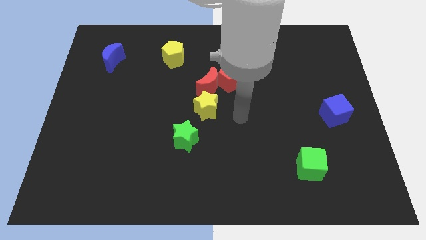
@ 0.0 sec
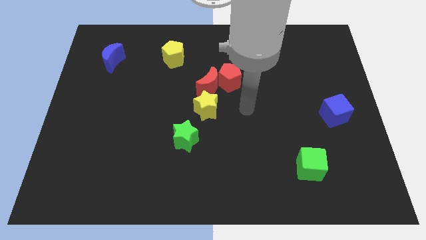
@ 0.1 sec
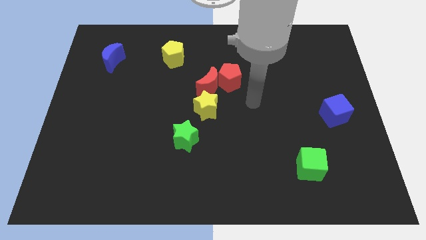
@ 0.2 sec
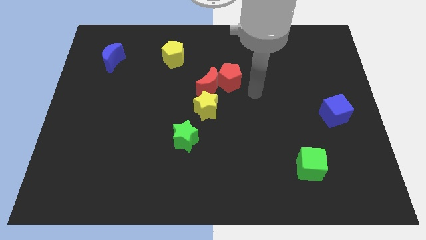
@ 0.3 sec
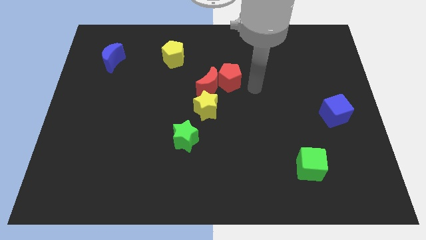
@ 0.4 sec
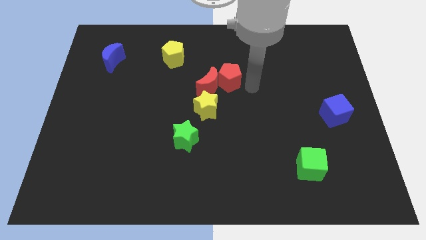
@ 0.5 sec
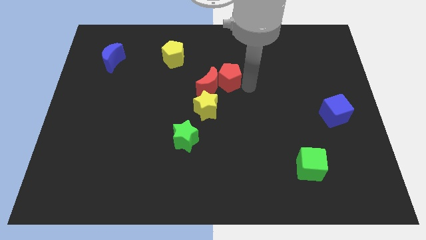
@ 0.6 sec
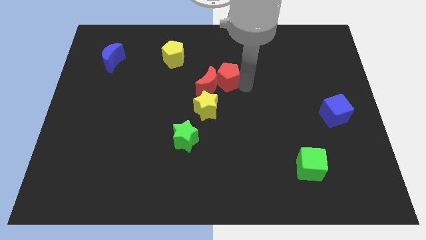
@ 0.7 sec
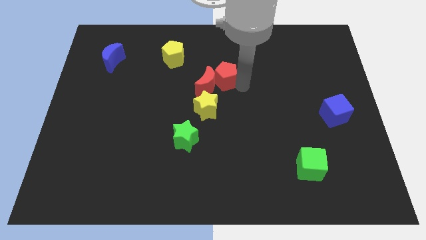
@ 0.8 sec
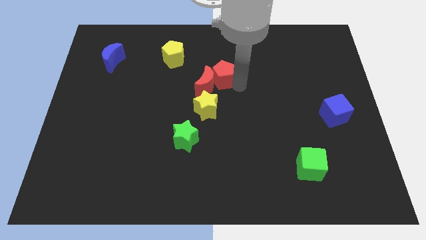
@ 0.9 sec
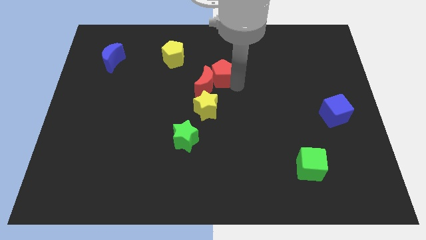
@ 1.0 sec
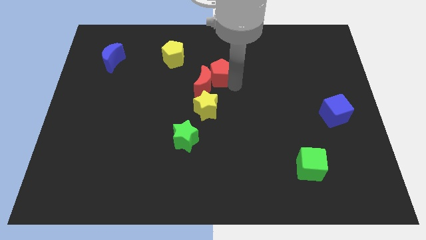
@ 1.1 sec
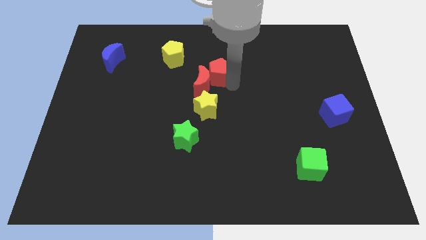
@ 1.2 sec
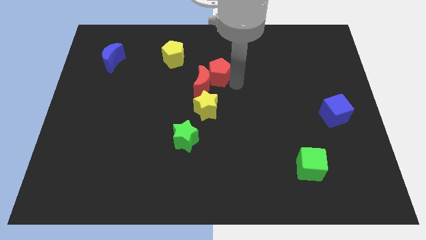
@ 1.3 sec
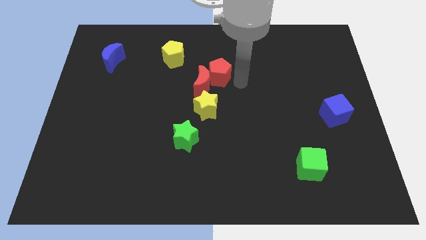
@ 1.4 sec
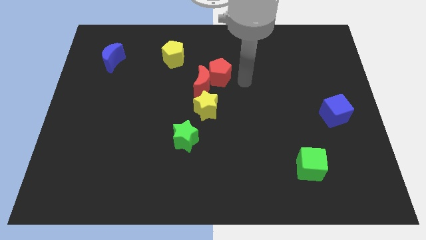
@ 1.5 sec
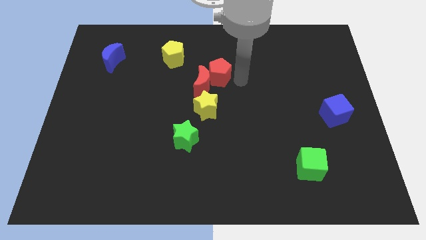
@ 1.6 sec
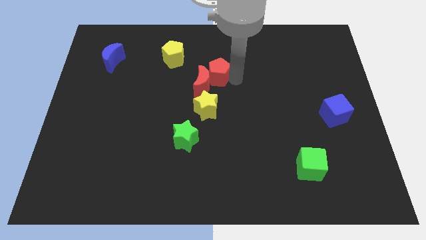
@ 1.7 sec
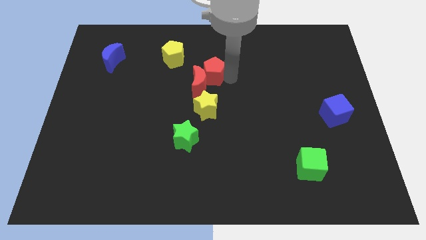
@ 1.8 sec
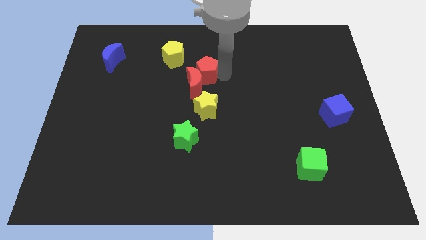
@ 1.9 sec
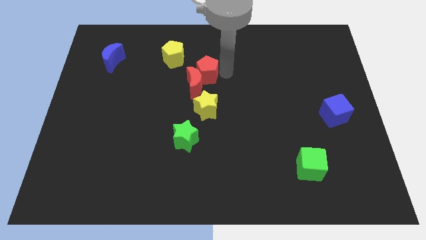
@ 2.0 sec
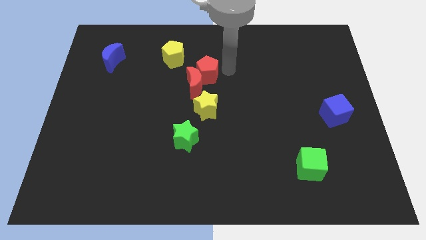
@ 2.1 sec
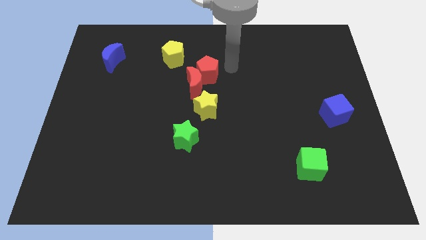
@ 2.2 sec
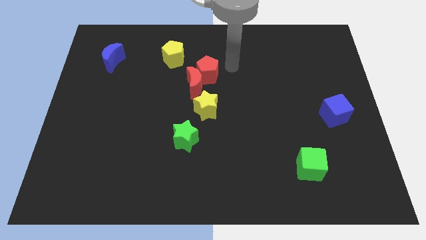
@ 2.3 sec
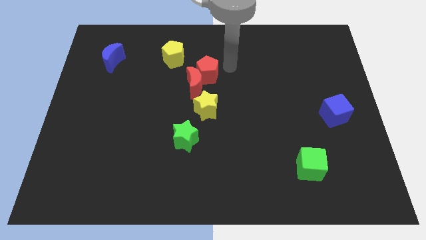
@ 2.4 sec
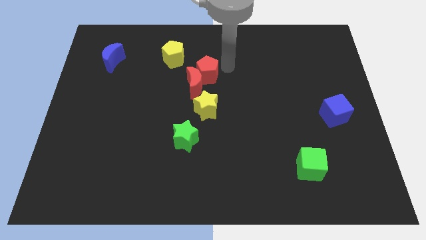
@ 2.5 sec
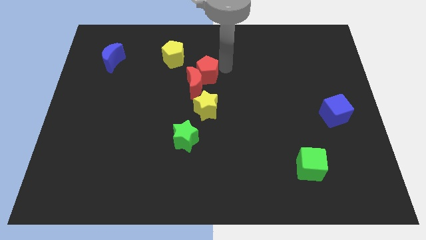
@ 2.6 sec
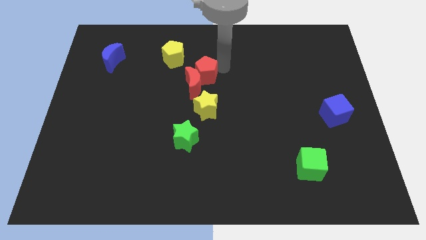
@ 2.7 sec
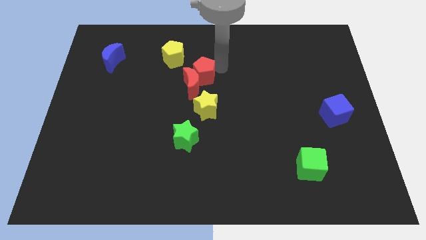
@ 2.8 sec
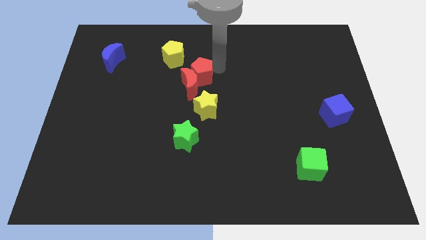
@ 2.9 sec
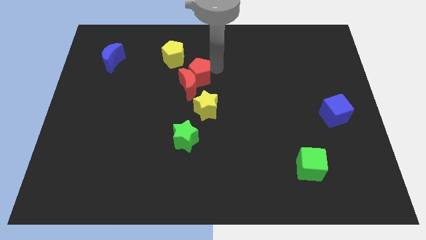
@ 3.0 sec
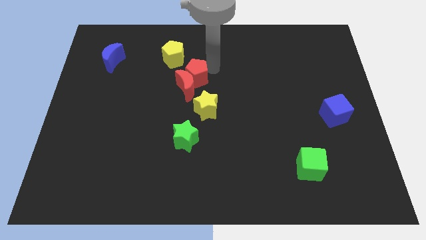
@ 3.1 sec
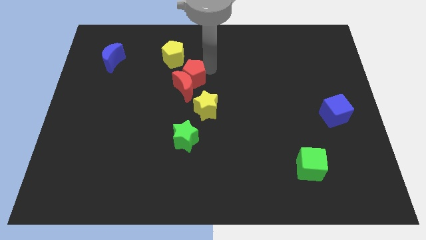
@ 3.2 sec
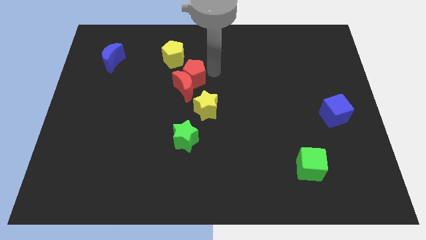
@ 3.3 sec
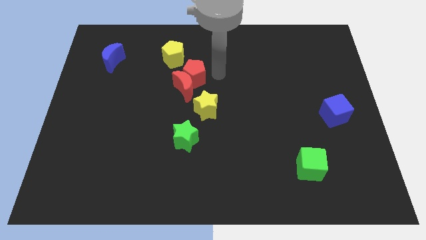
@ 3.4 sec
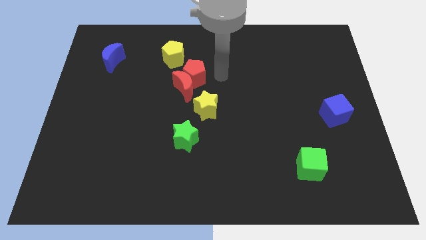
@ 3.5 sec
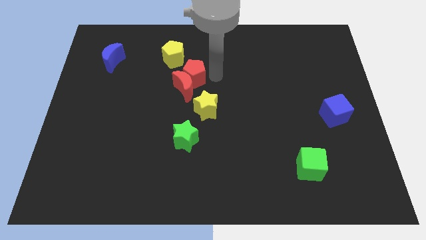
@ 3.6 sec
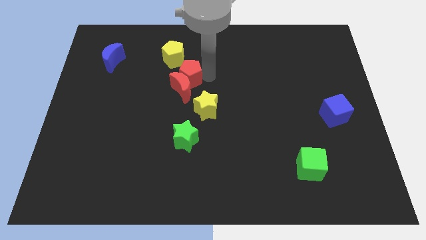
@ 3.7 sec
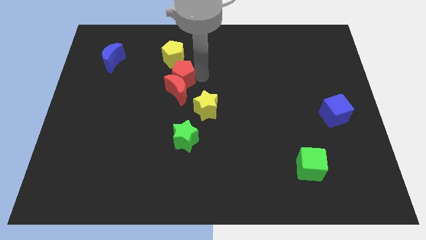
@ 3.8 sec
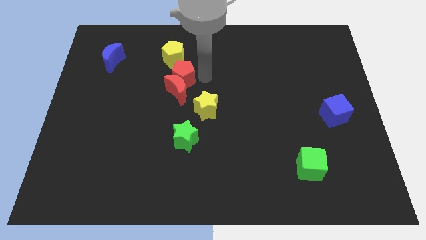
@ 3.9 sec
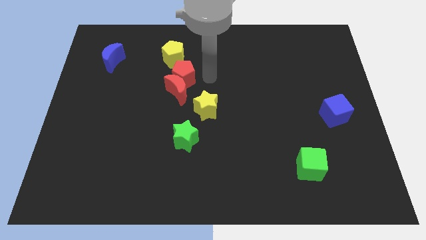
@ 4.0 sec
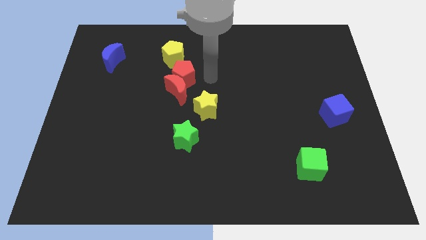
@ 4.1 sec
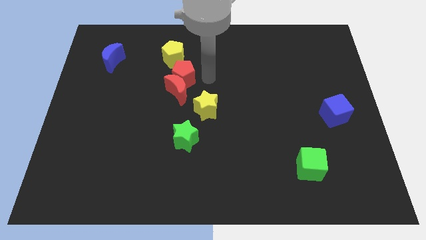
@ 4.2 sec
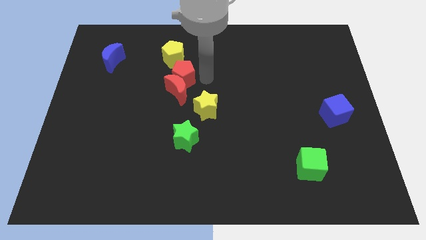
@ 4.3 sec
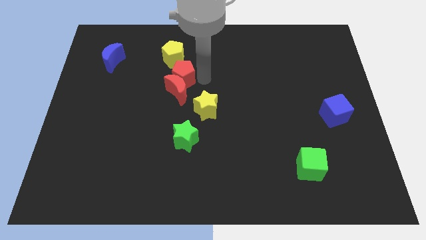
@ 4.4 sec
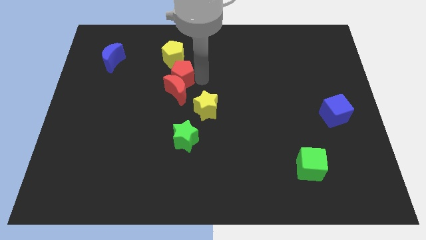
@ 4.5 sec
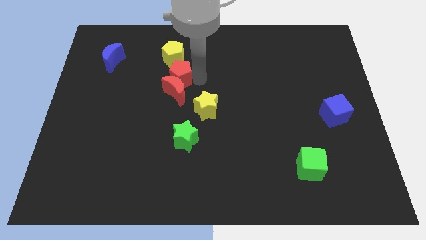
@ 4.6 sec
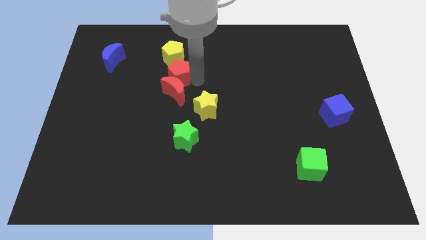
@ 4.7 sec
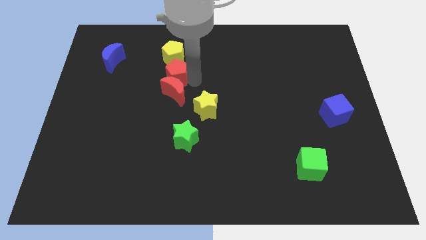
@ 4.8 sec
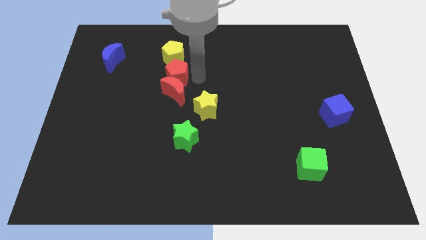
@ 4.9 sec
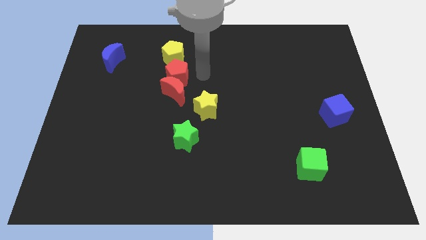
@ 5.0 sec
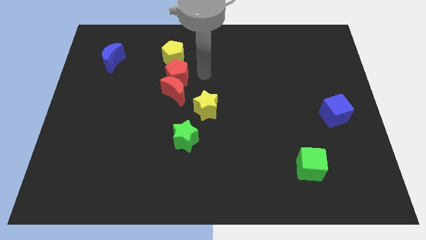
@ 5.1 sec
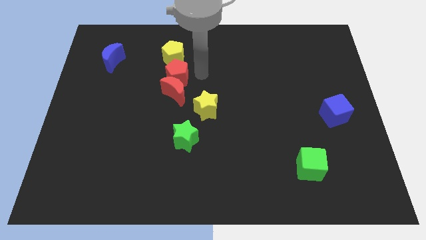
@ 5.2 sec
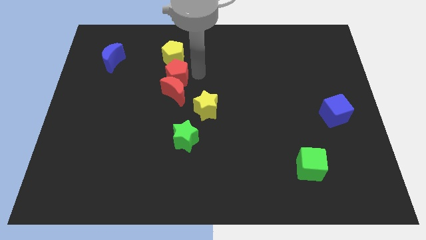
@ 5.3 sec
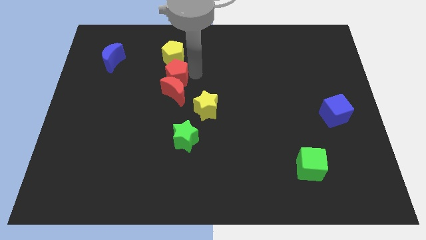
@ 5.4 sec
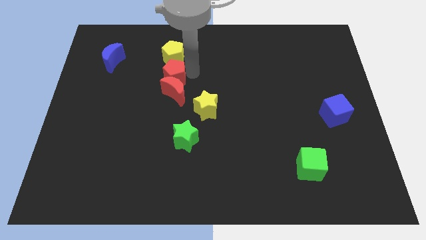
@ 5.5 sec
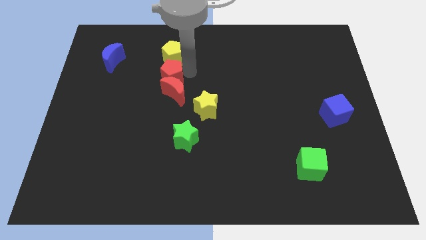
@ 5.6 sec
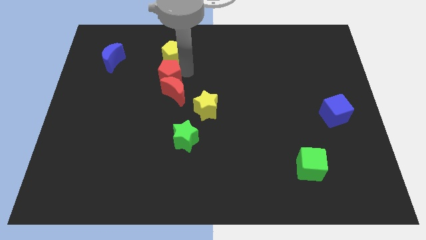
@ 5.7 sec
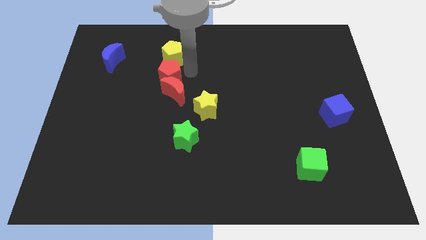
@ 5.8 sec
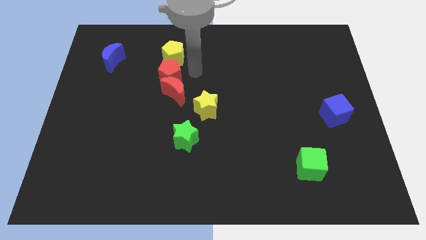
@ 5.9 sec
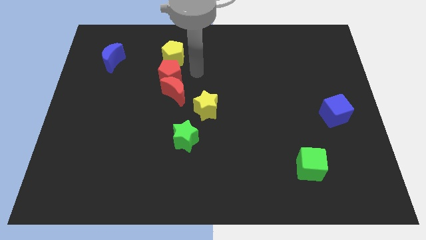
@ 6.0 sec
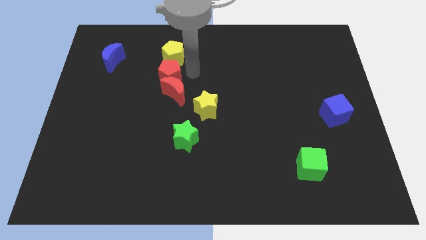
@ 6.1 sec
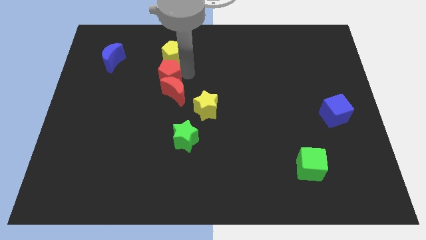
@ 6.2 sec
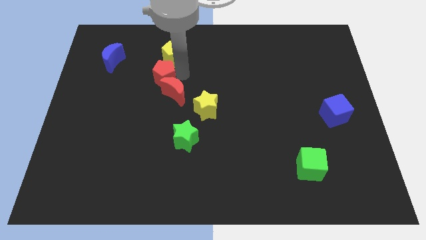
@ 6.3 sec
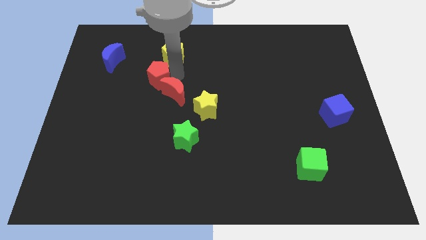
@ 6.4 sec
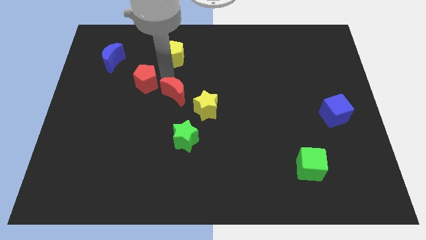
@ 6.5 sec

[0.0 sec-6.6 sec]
slide the red pentagon left

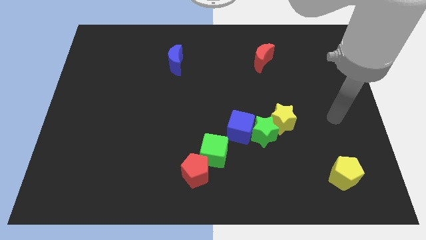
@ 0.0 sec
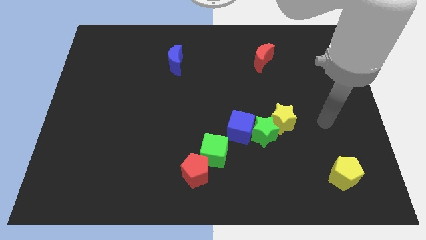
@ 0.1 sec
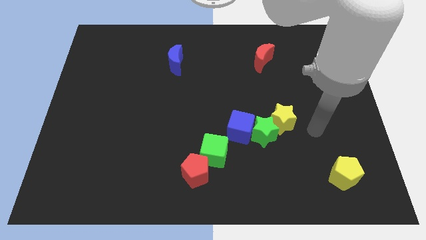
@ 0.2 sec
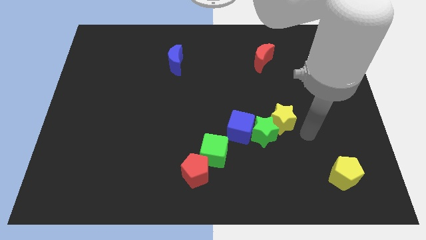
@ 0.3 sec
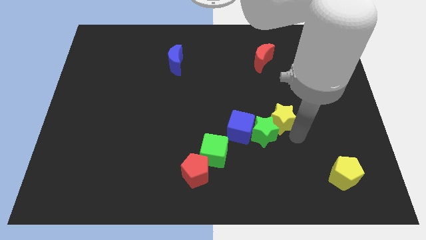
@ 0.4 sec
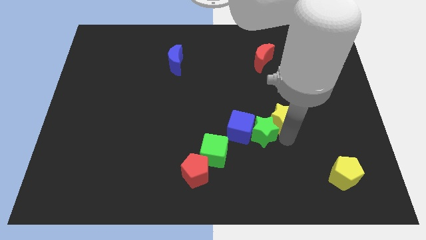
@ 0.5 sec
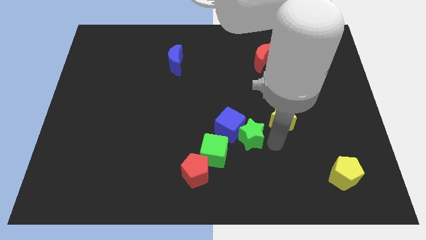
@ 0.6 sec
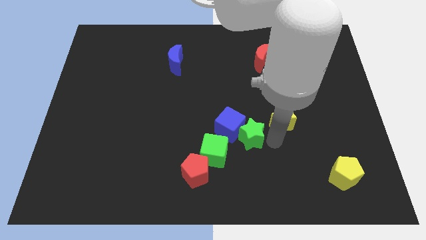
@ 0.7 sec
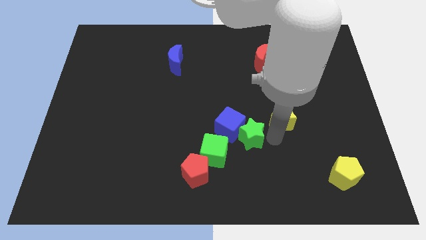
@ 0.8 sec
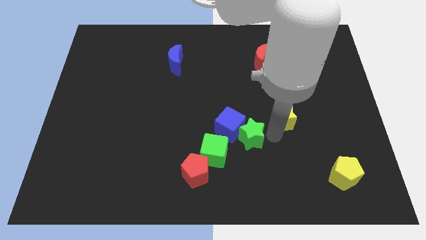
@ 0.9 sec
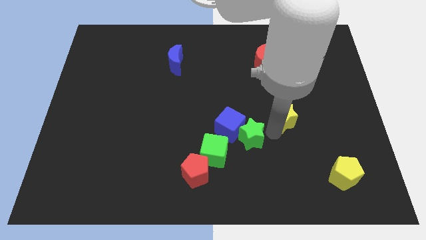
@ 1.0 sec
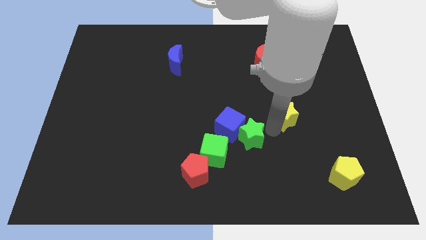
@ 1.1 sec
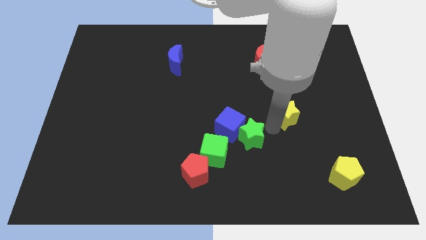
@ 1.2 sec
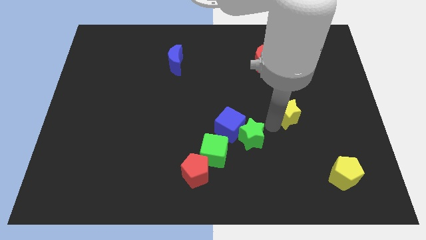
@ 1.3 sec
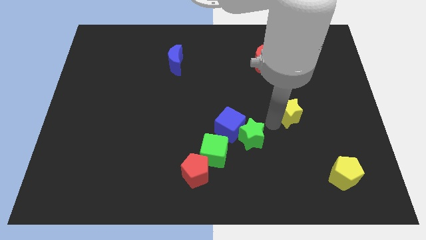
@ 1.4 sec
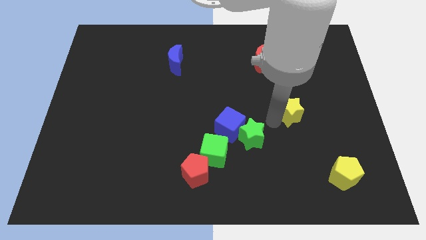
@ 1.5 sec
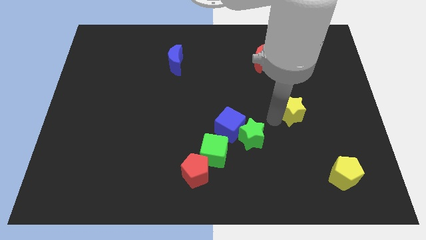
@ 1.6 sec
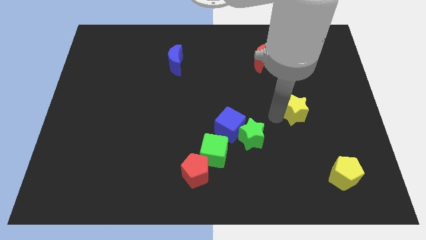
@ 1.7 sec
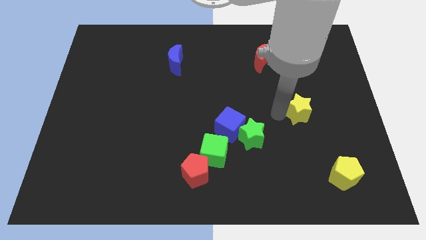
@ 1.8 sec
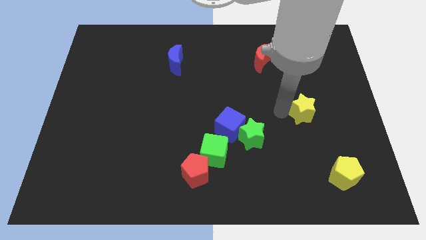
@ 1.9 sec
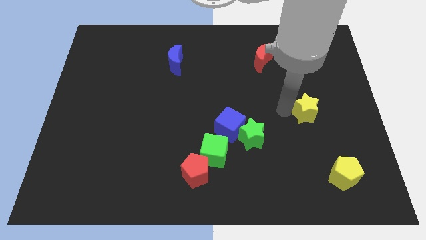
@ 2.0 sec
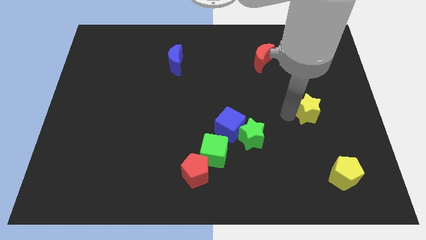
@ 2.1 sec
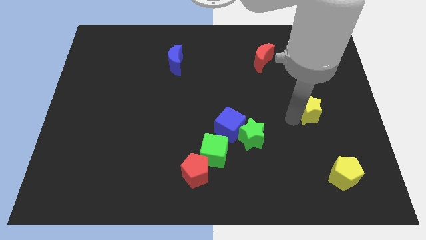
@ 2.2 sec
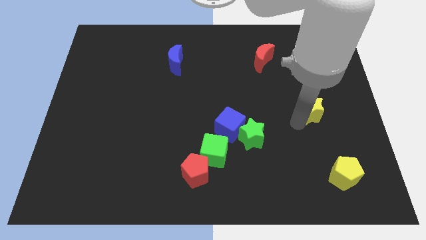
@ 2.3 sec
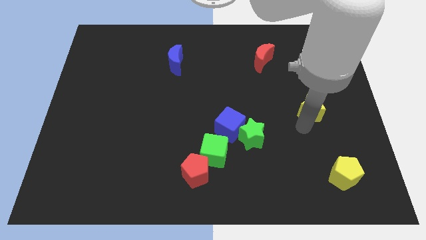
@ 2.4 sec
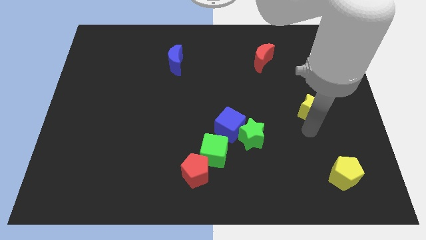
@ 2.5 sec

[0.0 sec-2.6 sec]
slightly slide the yellow star upwards and to the right diagonally
